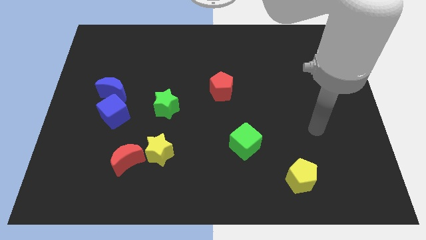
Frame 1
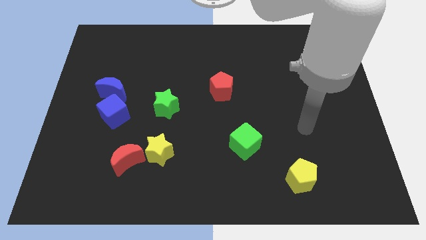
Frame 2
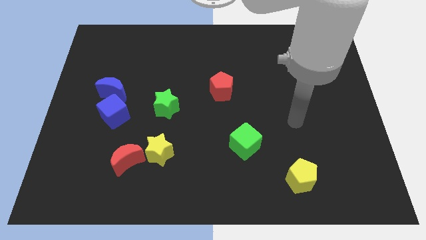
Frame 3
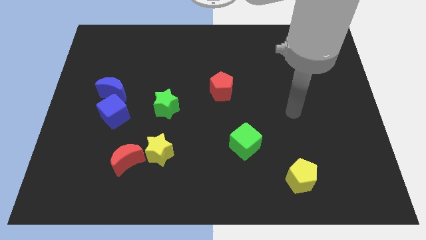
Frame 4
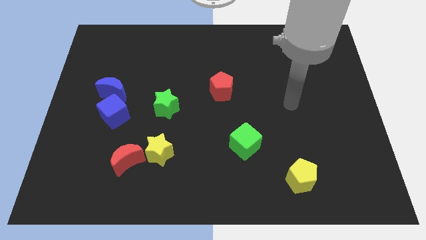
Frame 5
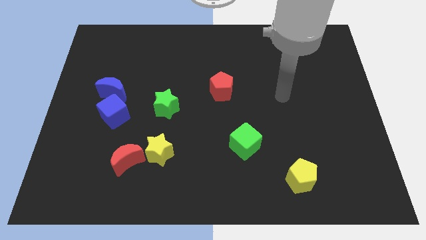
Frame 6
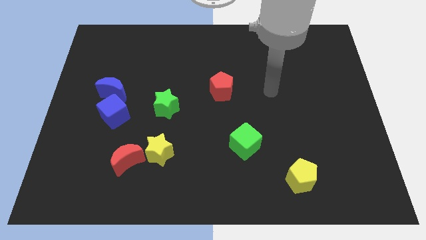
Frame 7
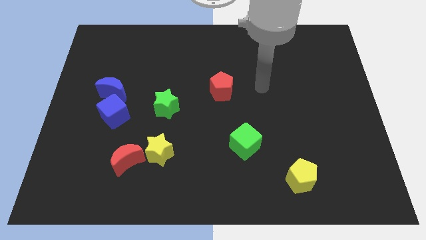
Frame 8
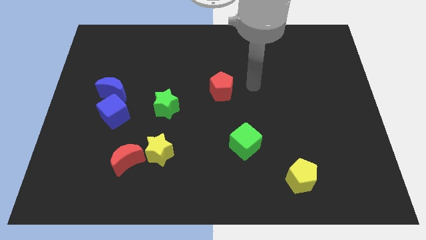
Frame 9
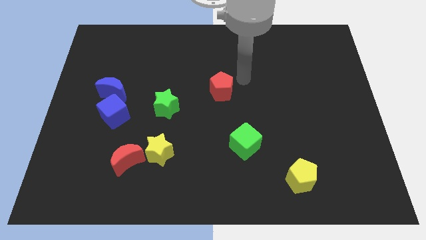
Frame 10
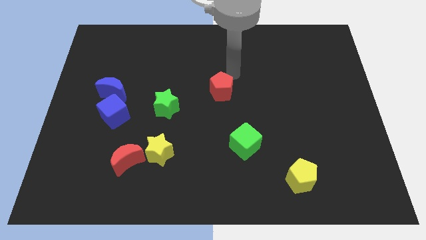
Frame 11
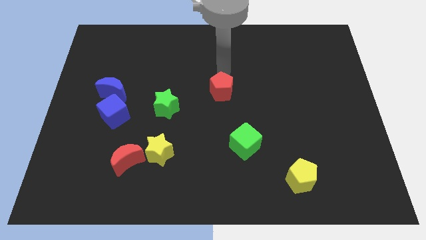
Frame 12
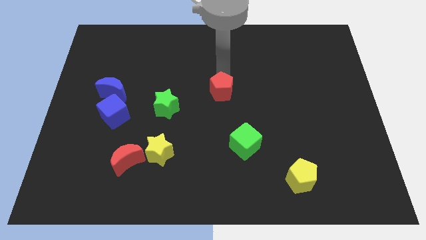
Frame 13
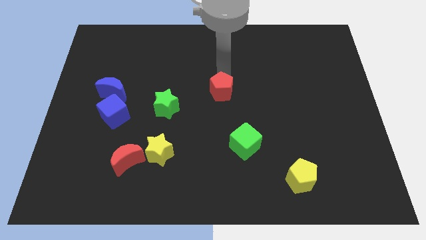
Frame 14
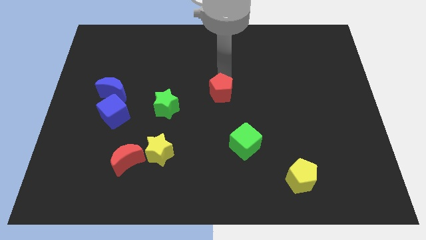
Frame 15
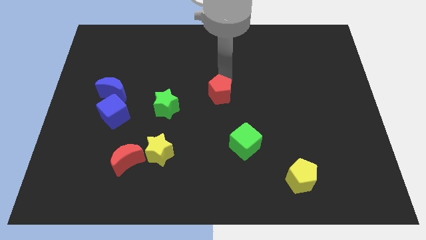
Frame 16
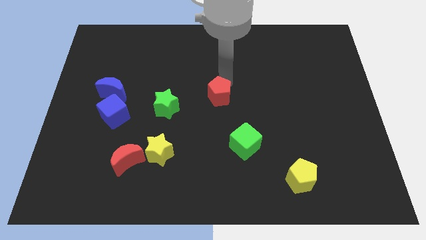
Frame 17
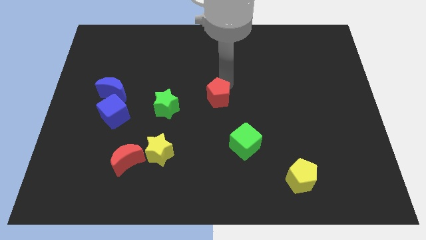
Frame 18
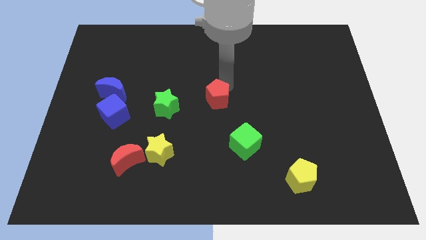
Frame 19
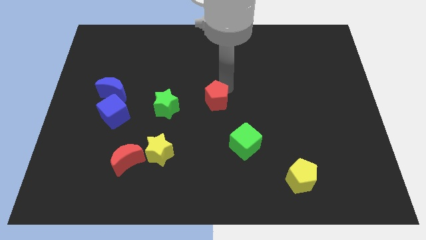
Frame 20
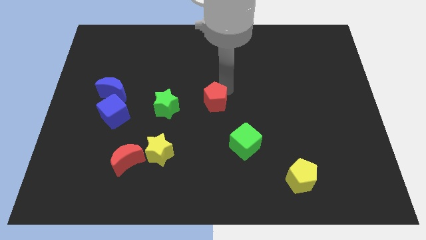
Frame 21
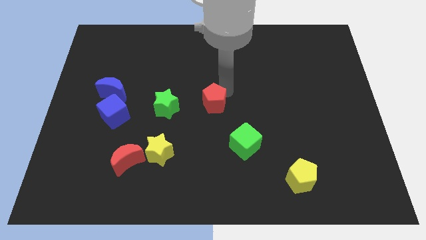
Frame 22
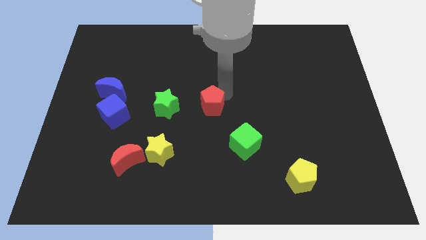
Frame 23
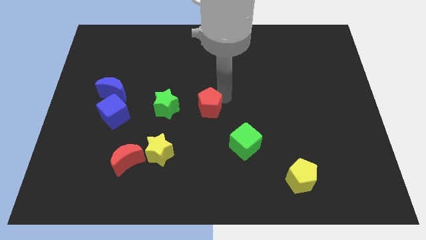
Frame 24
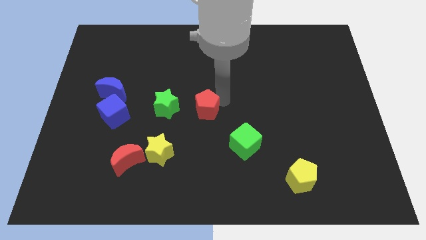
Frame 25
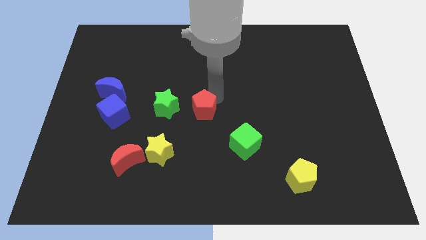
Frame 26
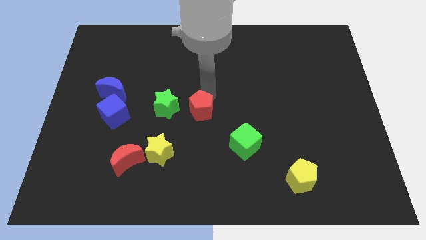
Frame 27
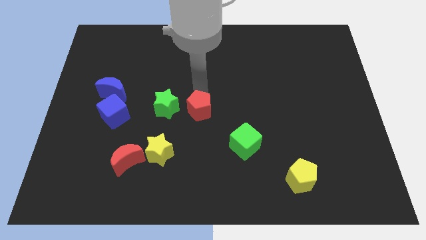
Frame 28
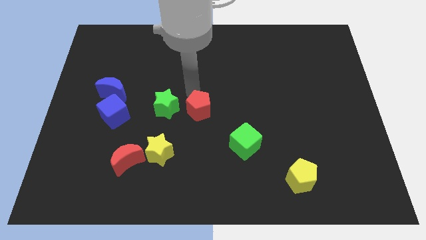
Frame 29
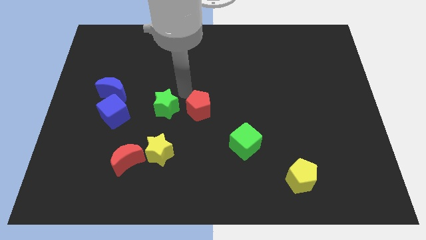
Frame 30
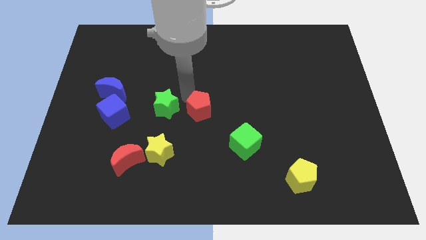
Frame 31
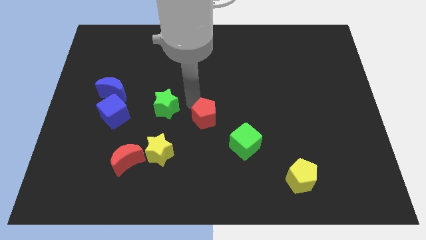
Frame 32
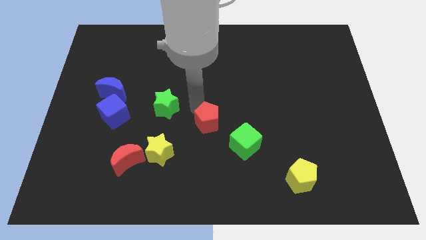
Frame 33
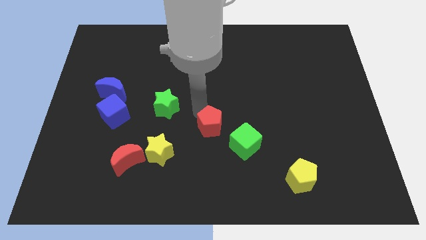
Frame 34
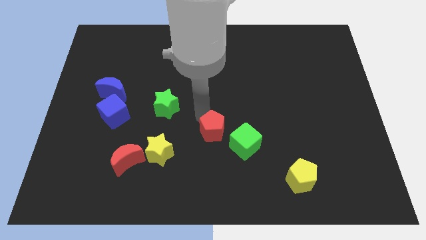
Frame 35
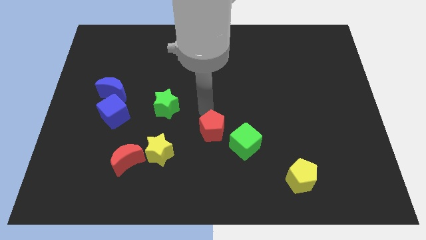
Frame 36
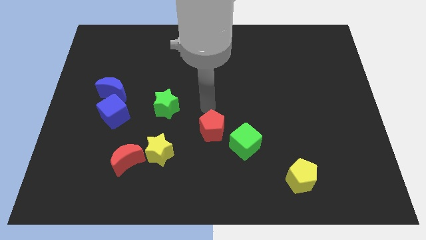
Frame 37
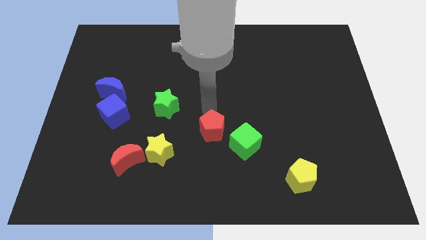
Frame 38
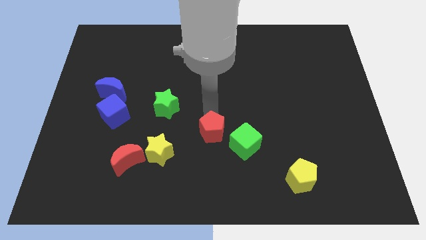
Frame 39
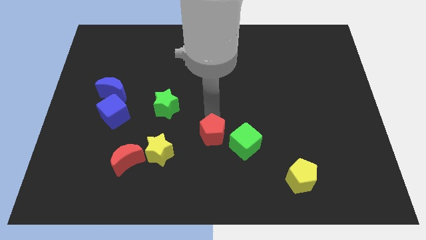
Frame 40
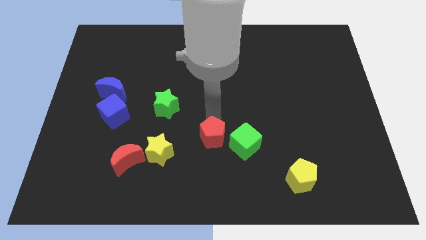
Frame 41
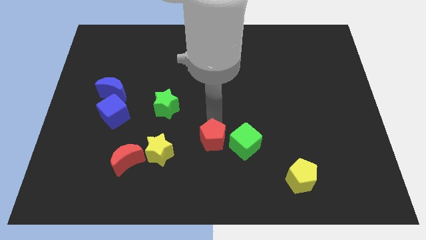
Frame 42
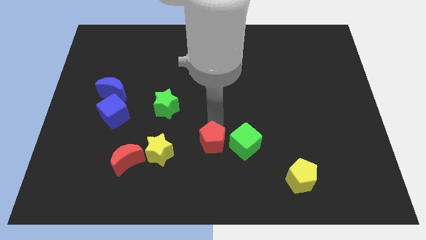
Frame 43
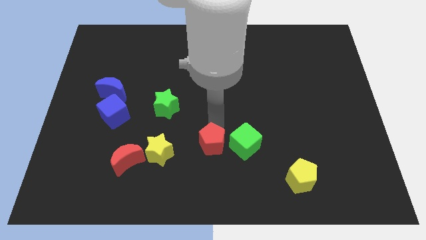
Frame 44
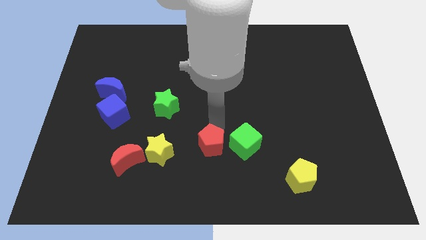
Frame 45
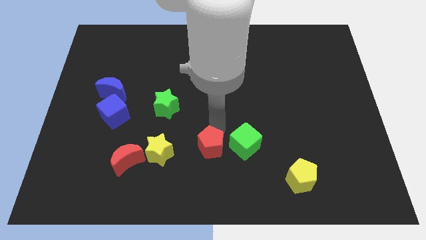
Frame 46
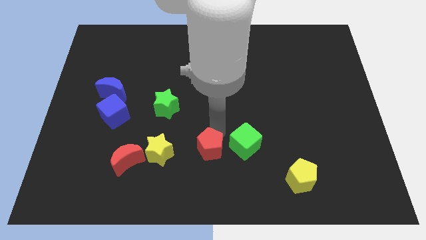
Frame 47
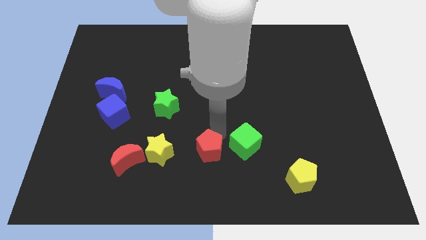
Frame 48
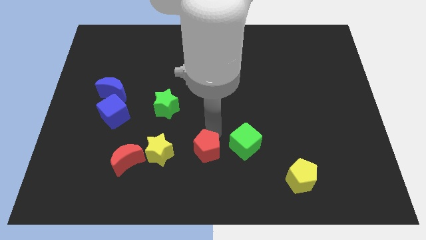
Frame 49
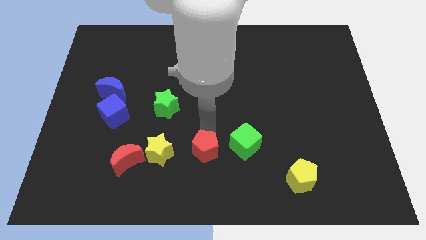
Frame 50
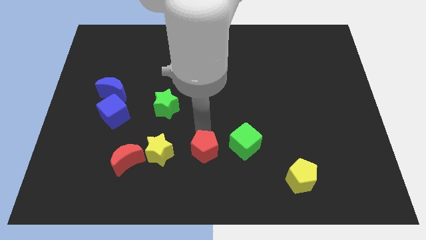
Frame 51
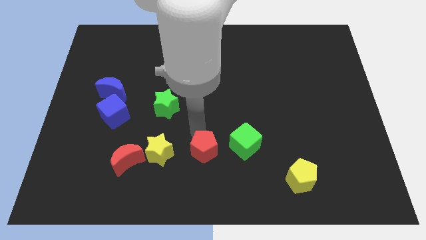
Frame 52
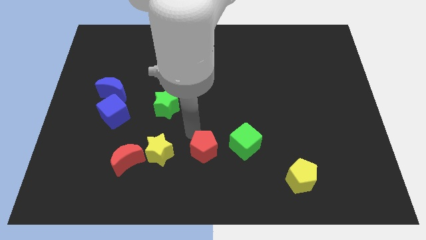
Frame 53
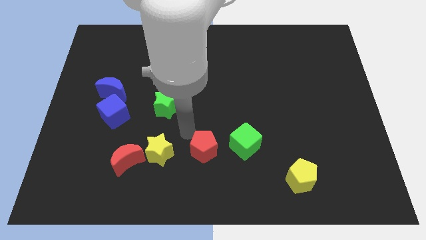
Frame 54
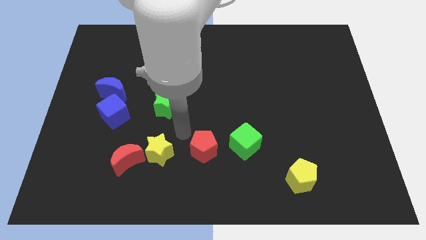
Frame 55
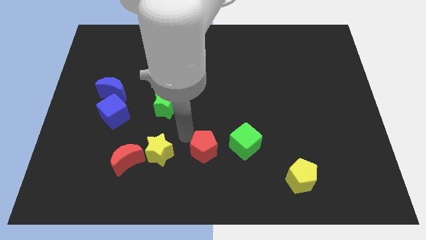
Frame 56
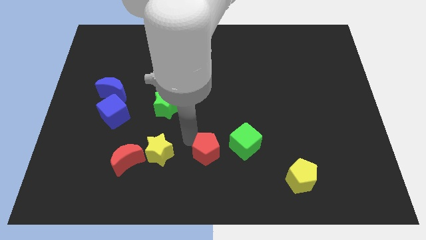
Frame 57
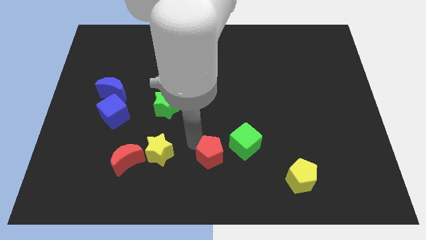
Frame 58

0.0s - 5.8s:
slide the red pentagon to the bottom side
